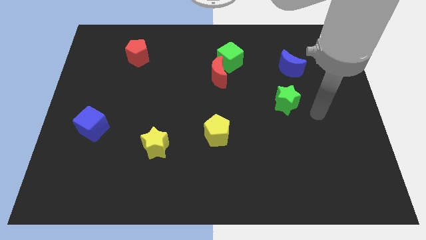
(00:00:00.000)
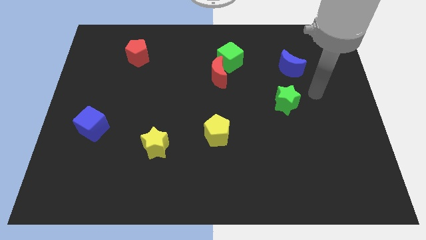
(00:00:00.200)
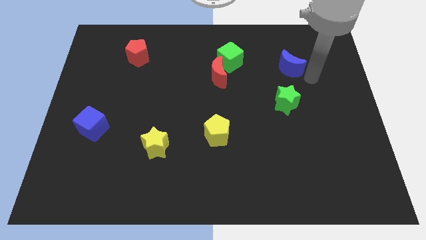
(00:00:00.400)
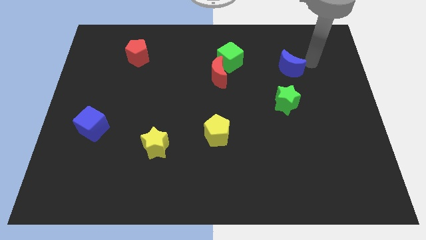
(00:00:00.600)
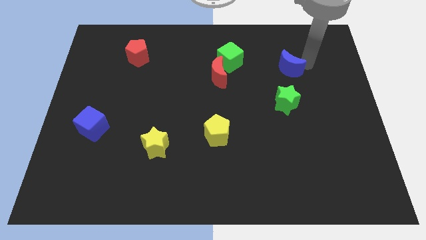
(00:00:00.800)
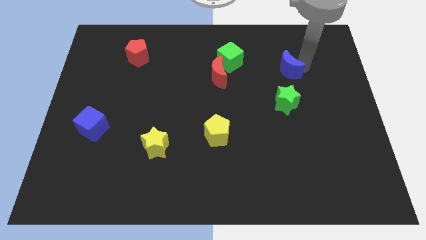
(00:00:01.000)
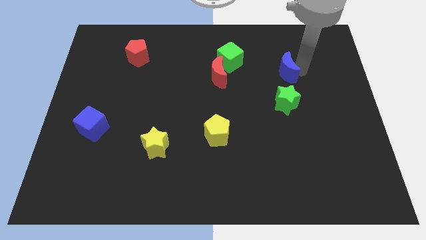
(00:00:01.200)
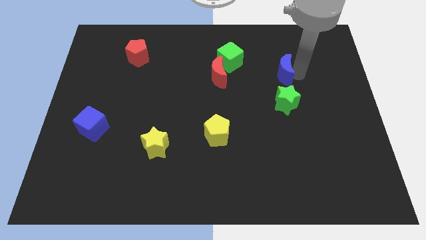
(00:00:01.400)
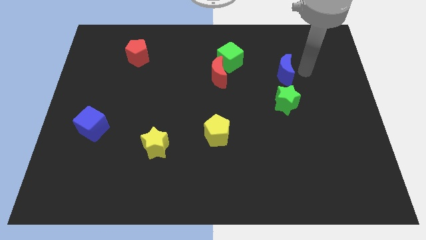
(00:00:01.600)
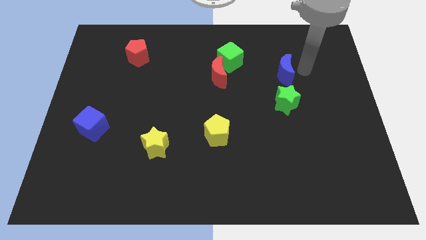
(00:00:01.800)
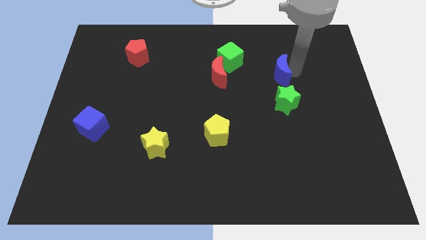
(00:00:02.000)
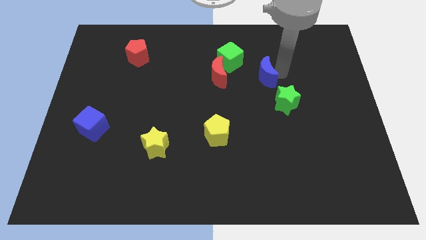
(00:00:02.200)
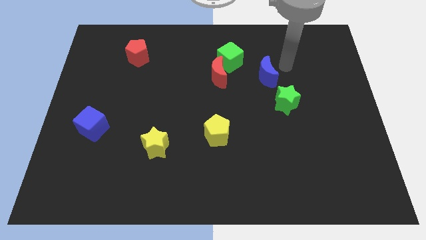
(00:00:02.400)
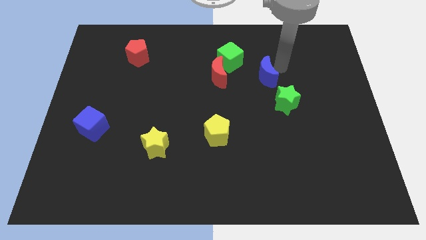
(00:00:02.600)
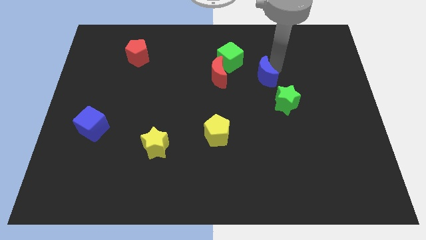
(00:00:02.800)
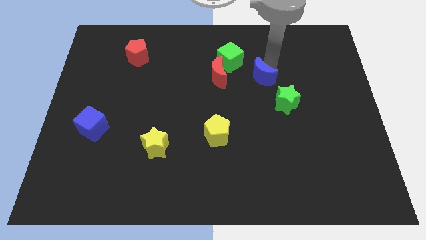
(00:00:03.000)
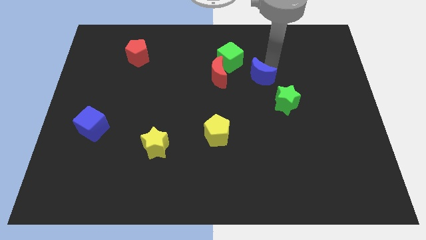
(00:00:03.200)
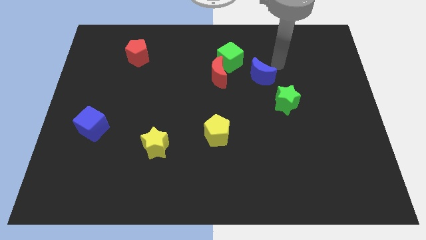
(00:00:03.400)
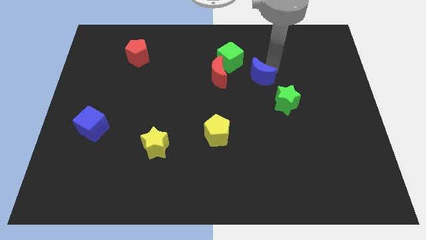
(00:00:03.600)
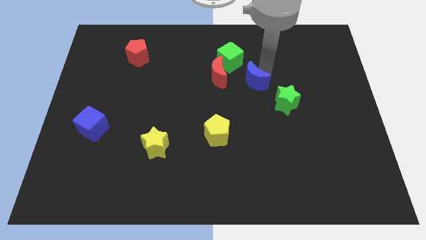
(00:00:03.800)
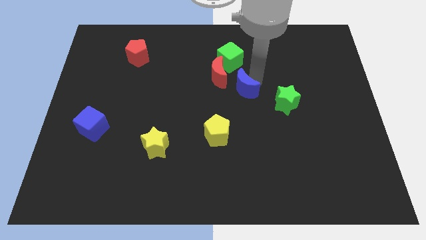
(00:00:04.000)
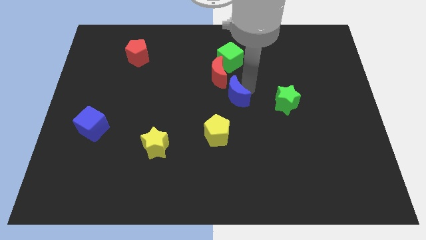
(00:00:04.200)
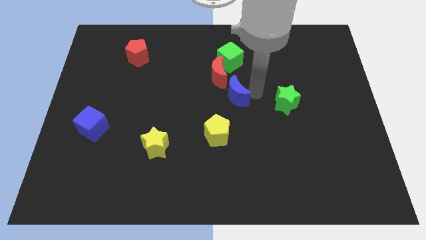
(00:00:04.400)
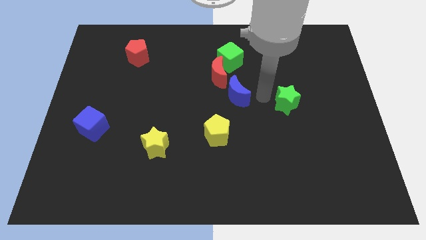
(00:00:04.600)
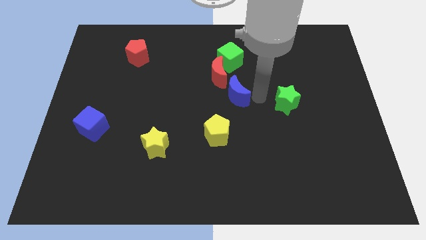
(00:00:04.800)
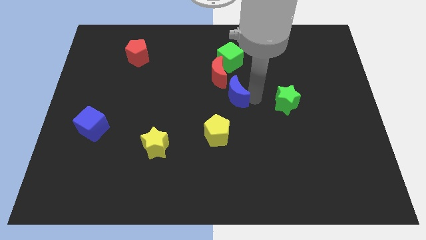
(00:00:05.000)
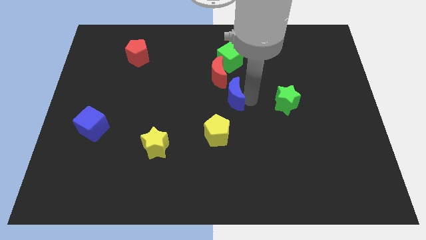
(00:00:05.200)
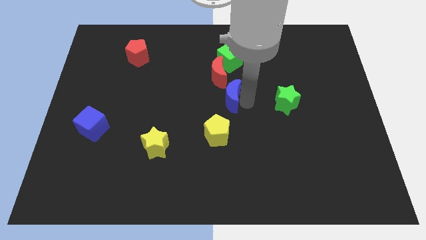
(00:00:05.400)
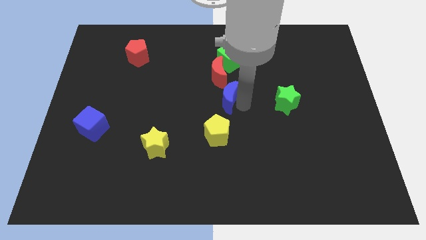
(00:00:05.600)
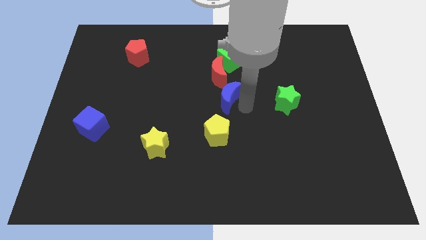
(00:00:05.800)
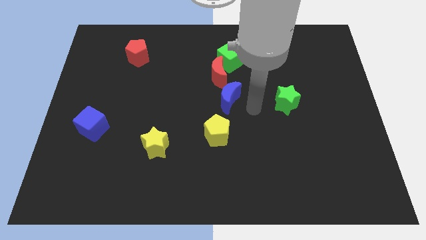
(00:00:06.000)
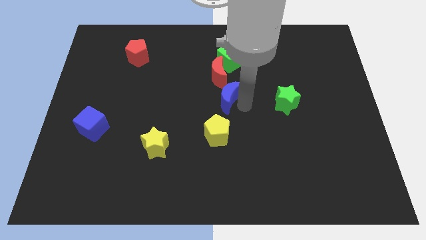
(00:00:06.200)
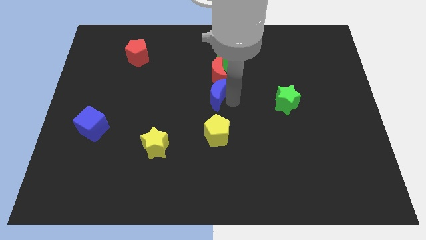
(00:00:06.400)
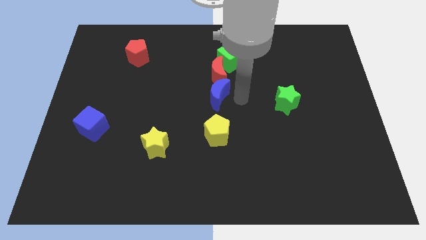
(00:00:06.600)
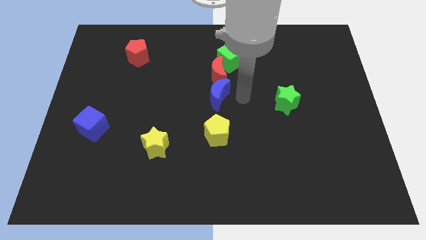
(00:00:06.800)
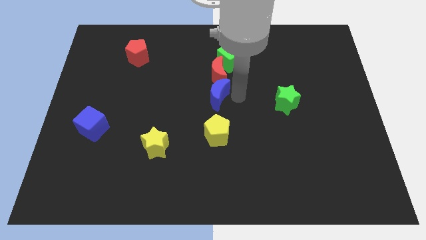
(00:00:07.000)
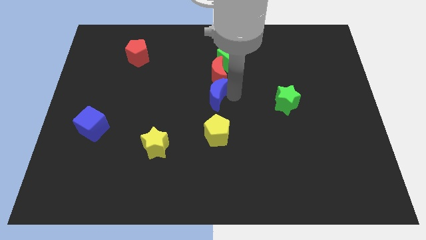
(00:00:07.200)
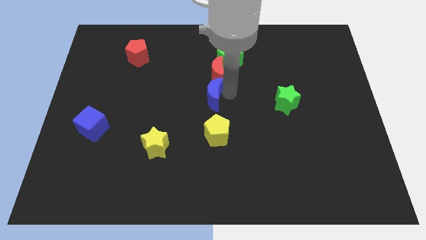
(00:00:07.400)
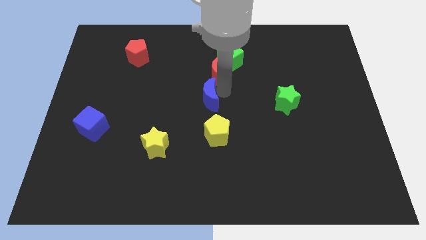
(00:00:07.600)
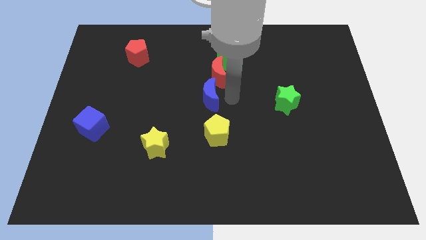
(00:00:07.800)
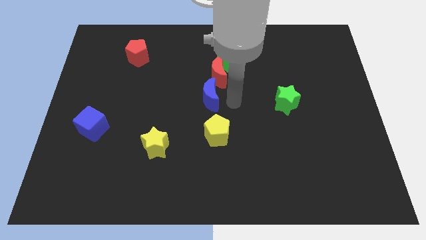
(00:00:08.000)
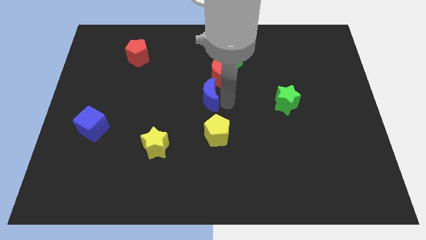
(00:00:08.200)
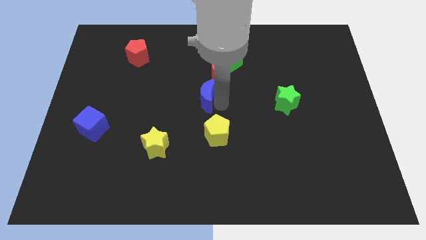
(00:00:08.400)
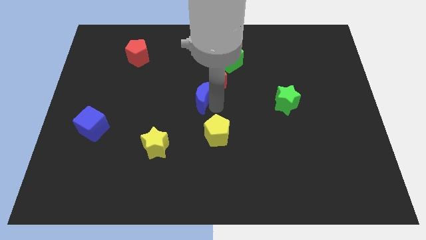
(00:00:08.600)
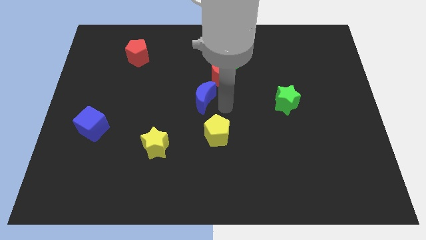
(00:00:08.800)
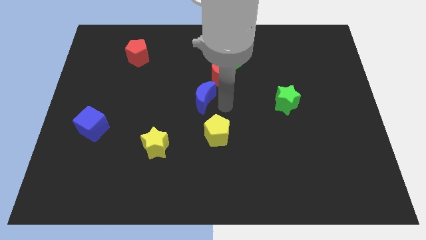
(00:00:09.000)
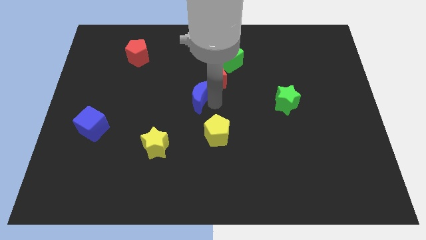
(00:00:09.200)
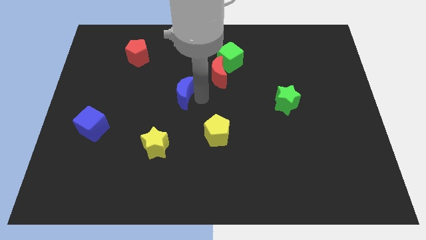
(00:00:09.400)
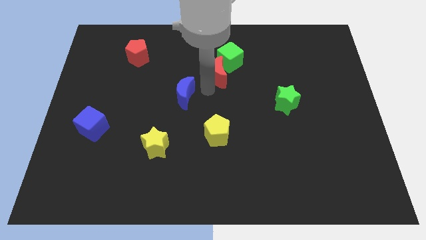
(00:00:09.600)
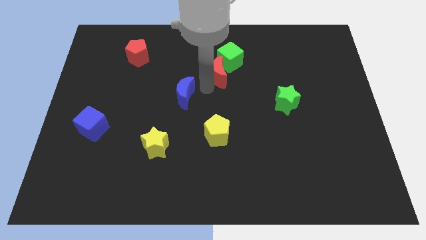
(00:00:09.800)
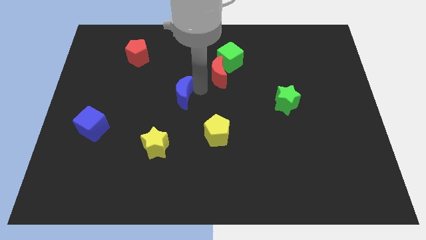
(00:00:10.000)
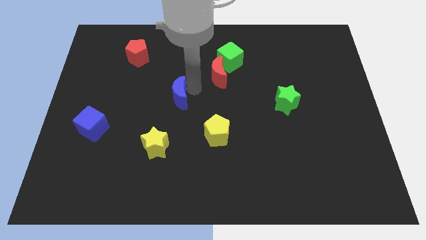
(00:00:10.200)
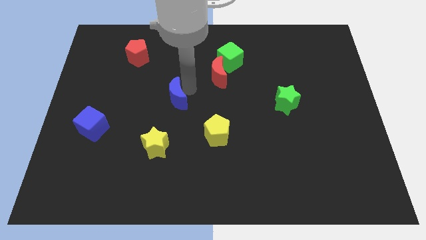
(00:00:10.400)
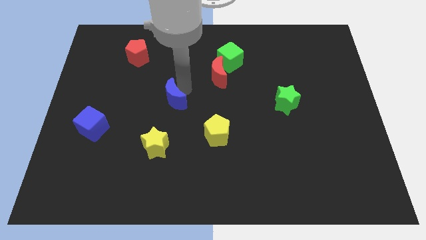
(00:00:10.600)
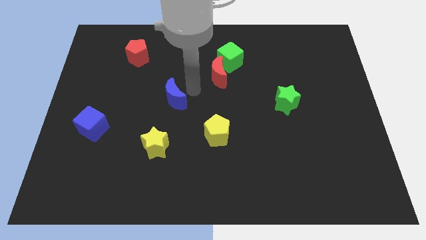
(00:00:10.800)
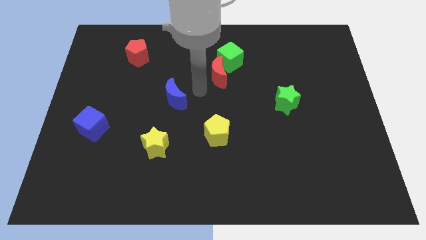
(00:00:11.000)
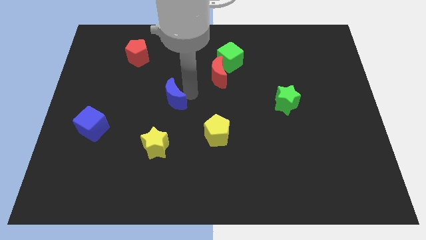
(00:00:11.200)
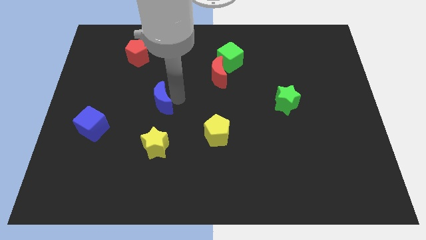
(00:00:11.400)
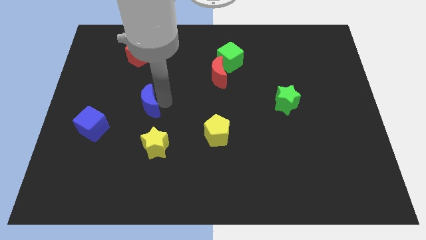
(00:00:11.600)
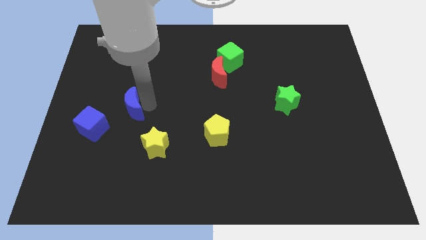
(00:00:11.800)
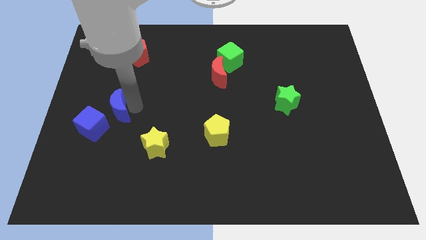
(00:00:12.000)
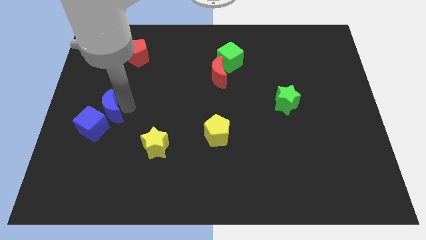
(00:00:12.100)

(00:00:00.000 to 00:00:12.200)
slide the blue moon to the blue cube

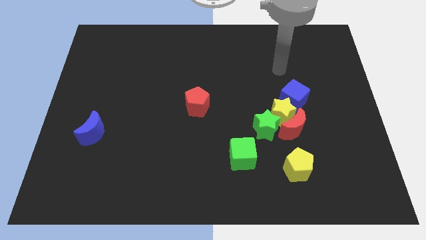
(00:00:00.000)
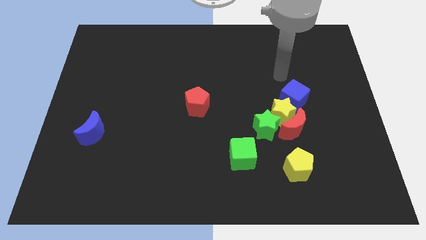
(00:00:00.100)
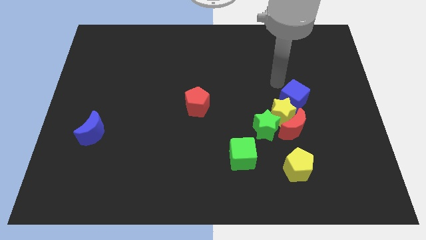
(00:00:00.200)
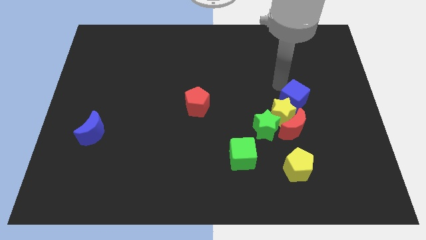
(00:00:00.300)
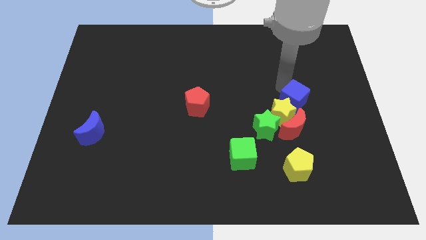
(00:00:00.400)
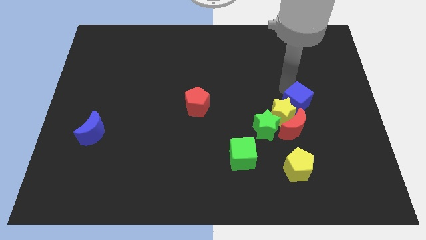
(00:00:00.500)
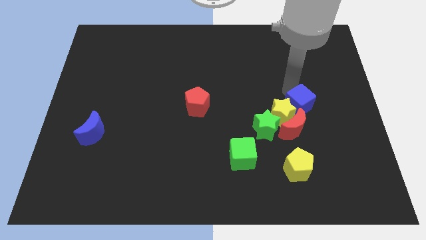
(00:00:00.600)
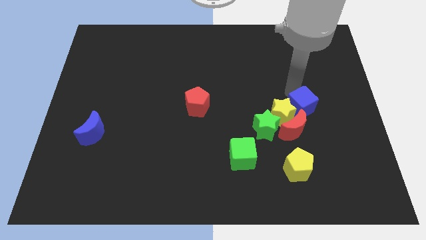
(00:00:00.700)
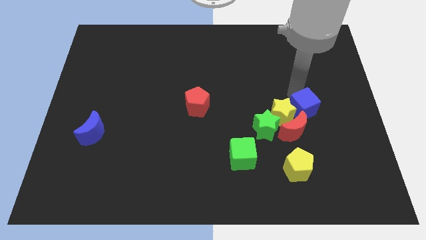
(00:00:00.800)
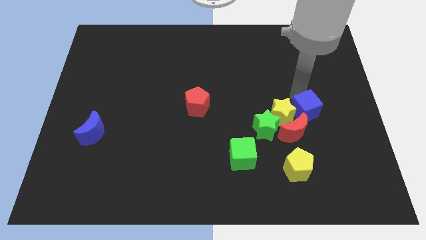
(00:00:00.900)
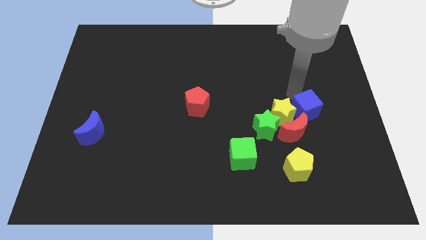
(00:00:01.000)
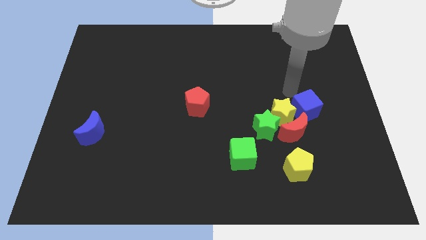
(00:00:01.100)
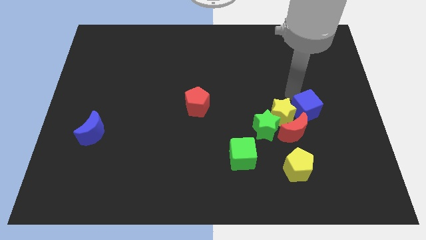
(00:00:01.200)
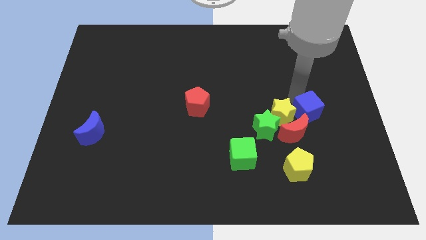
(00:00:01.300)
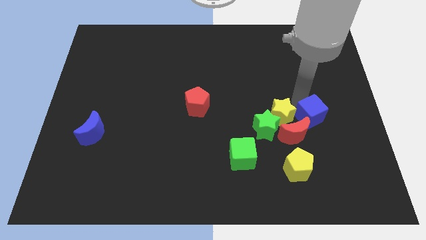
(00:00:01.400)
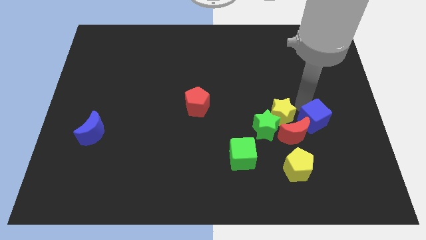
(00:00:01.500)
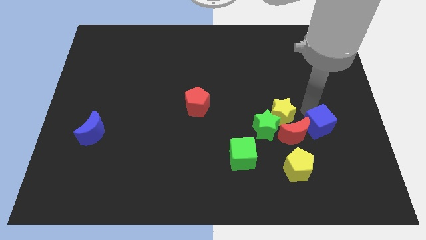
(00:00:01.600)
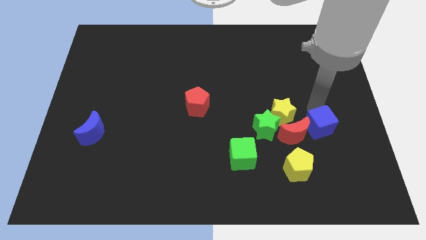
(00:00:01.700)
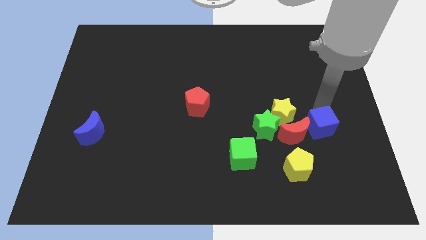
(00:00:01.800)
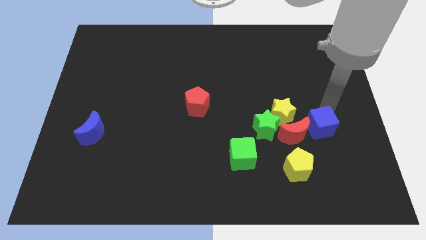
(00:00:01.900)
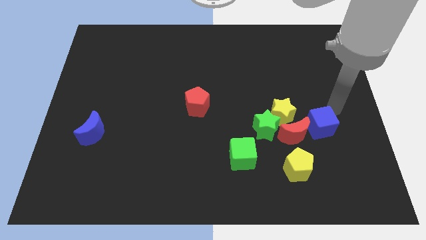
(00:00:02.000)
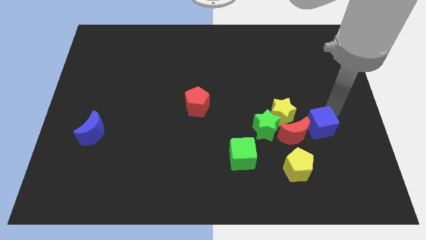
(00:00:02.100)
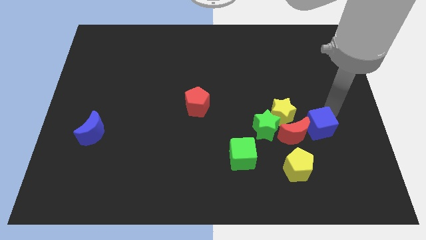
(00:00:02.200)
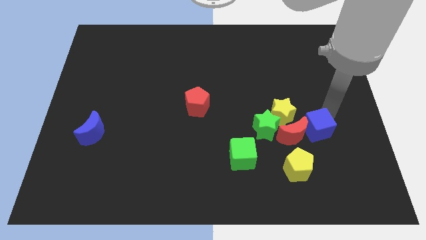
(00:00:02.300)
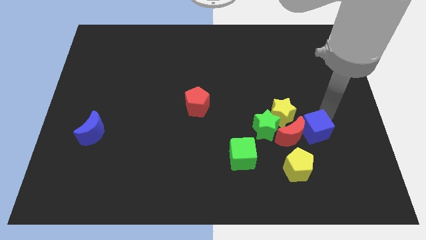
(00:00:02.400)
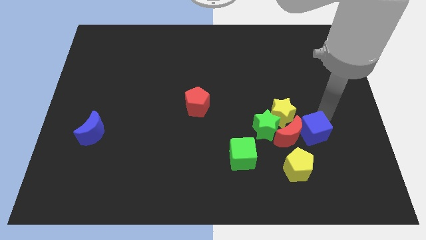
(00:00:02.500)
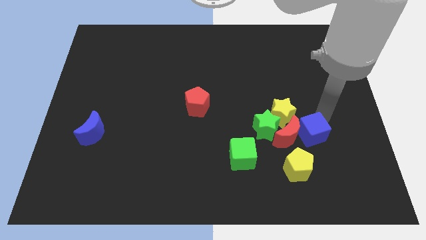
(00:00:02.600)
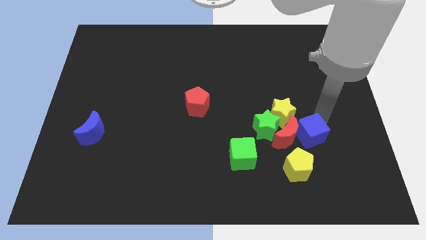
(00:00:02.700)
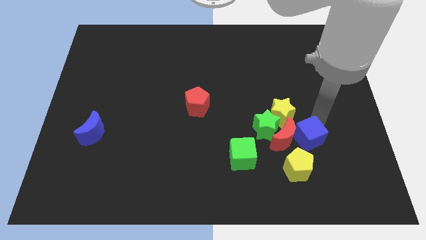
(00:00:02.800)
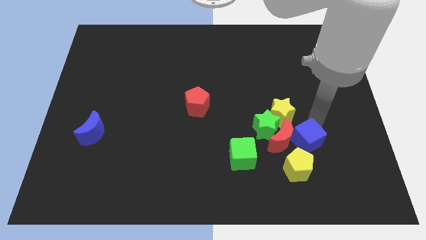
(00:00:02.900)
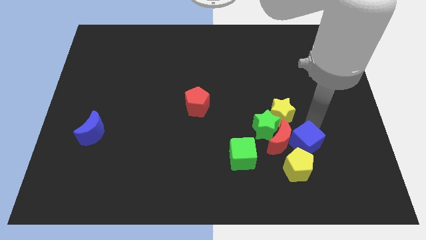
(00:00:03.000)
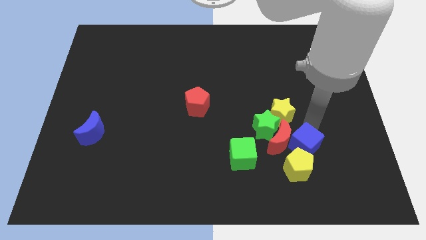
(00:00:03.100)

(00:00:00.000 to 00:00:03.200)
move the blue cube next to the yellow pentagon
